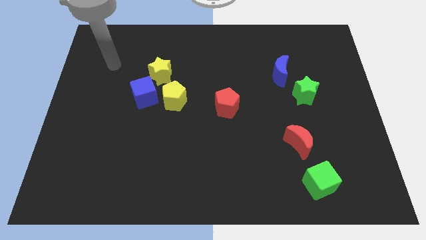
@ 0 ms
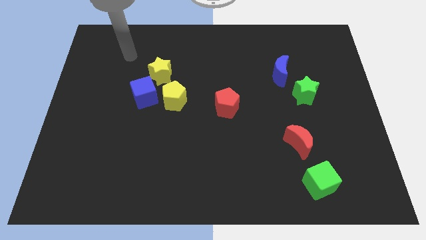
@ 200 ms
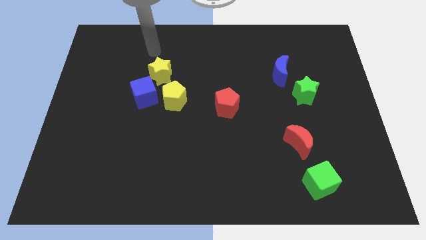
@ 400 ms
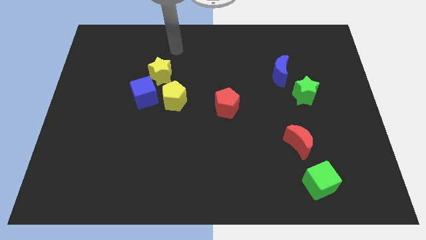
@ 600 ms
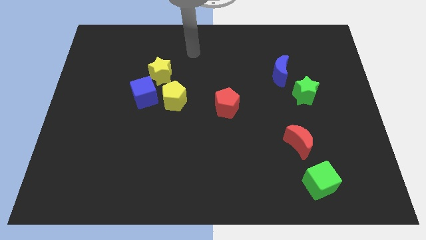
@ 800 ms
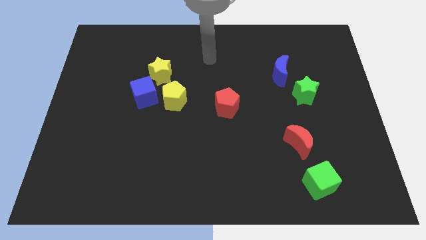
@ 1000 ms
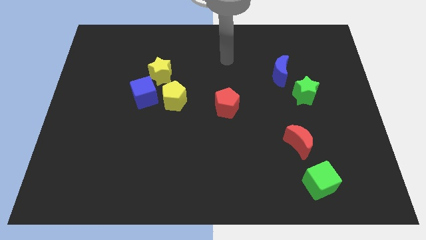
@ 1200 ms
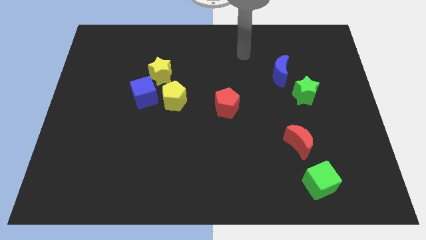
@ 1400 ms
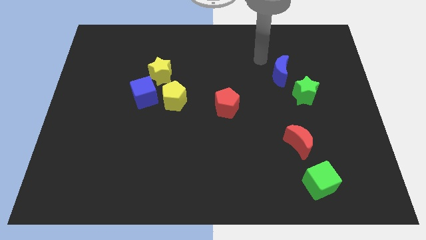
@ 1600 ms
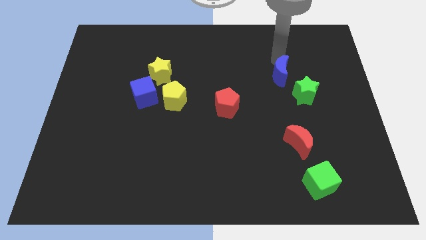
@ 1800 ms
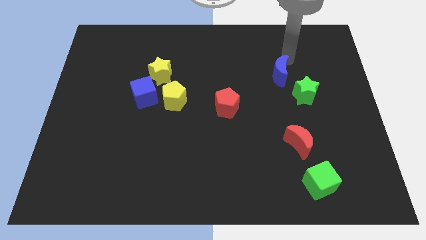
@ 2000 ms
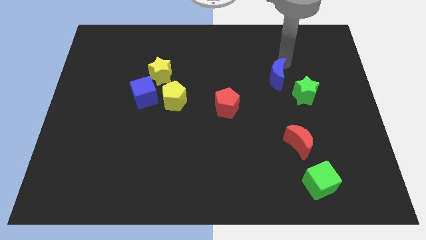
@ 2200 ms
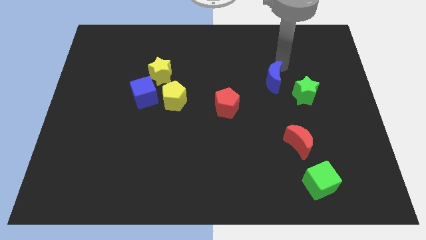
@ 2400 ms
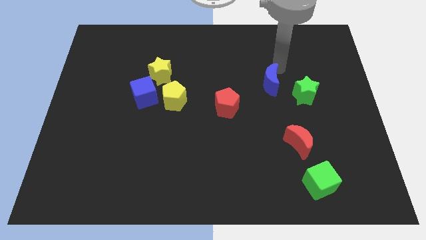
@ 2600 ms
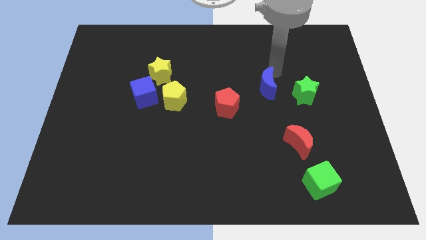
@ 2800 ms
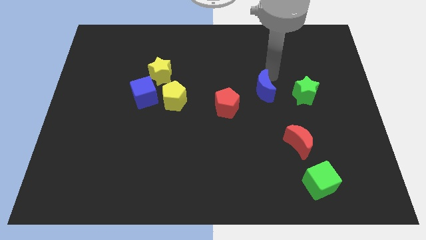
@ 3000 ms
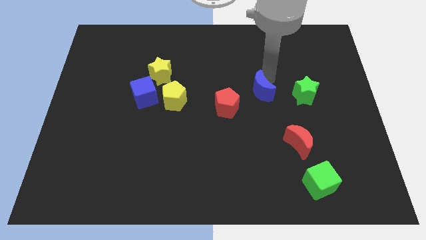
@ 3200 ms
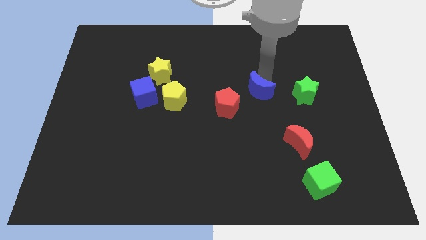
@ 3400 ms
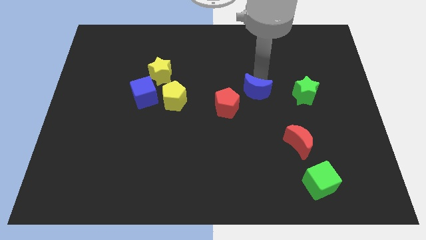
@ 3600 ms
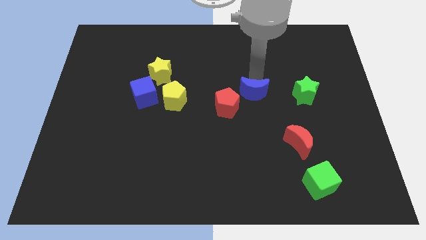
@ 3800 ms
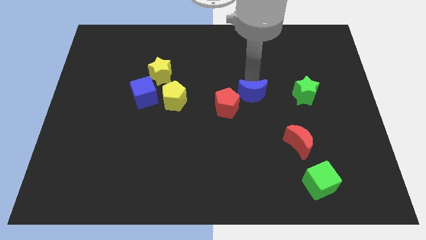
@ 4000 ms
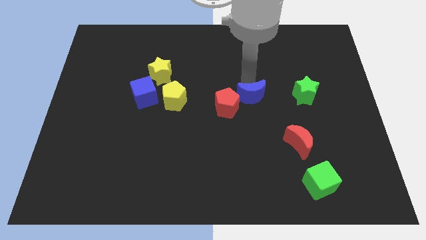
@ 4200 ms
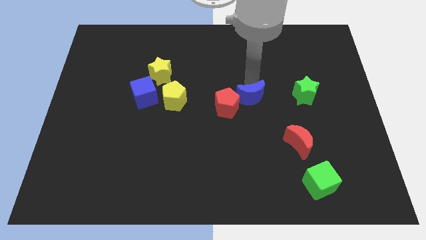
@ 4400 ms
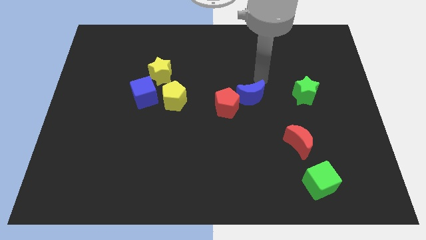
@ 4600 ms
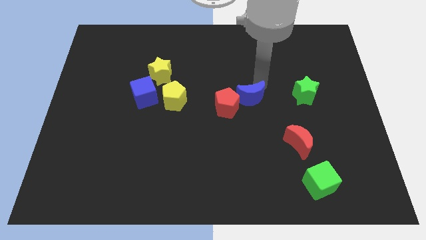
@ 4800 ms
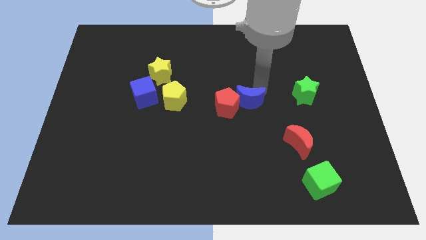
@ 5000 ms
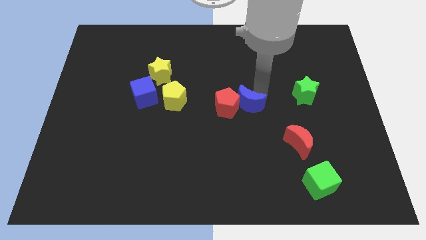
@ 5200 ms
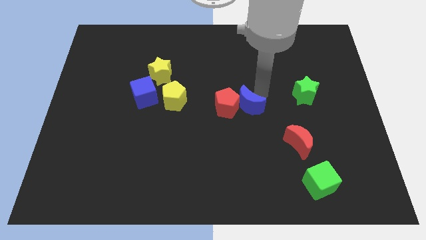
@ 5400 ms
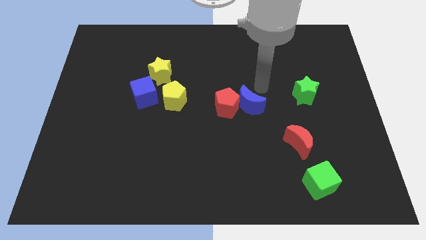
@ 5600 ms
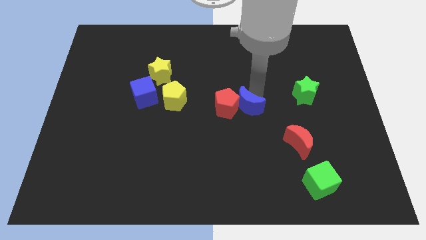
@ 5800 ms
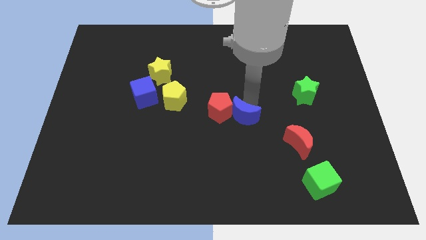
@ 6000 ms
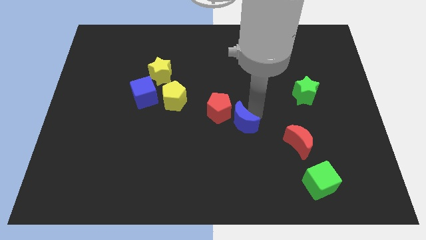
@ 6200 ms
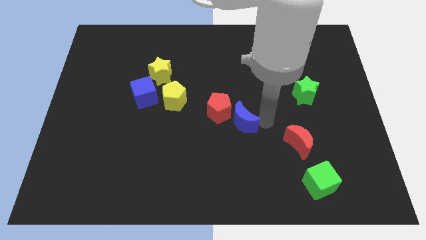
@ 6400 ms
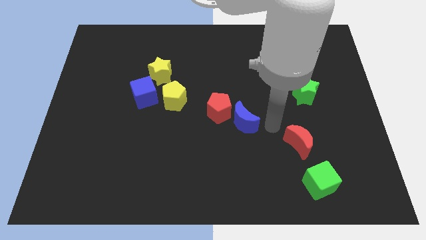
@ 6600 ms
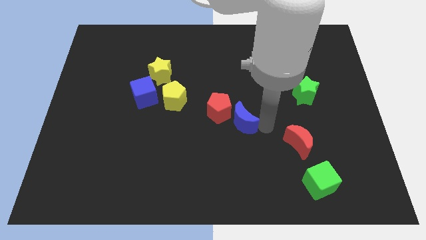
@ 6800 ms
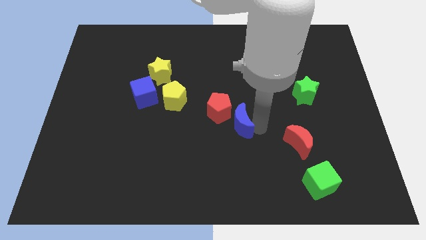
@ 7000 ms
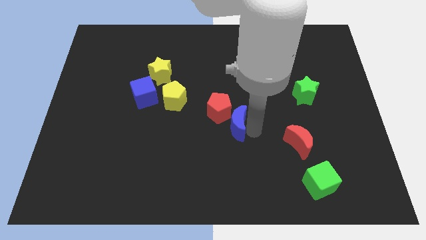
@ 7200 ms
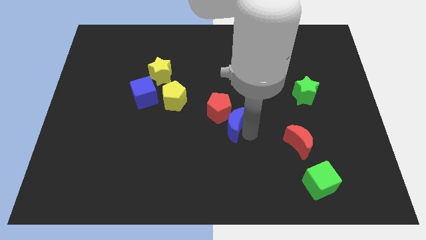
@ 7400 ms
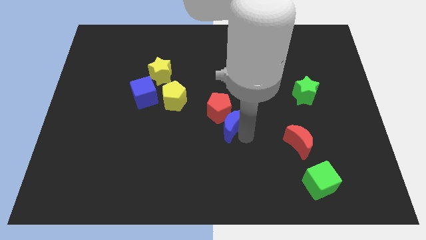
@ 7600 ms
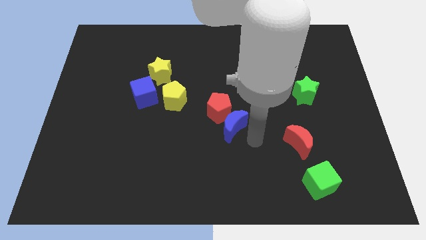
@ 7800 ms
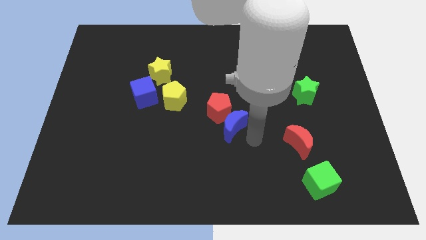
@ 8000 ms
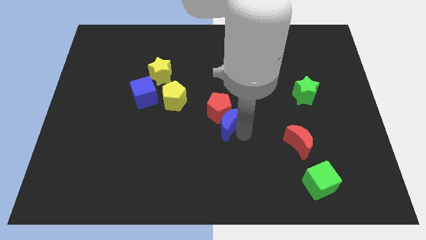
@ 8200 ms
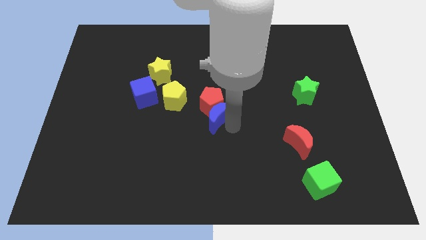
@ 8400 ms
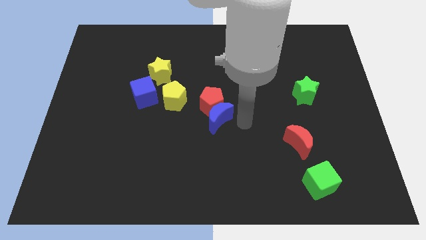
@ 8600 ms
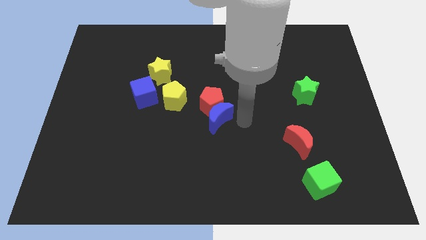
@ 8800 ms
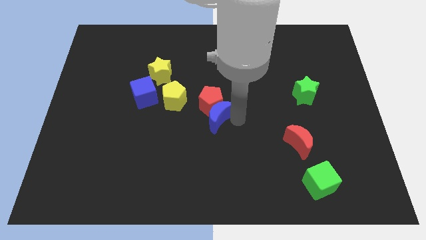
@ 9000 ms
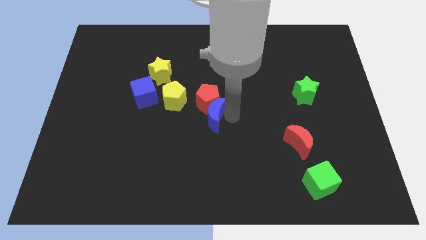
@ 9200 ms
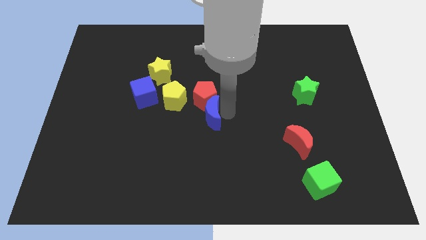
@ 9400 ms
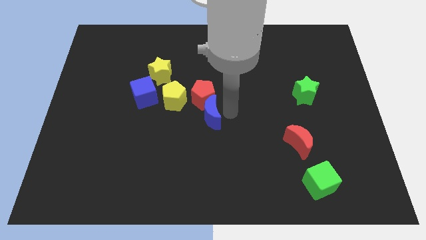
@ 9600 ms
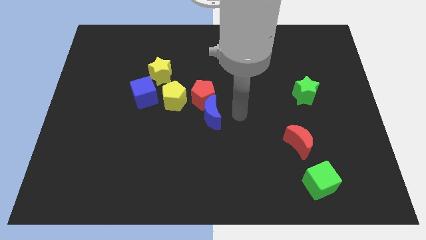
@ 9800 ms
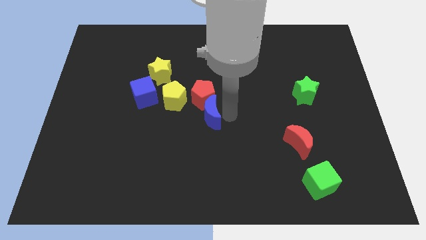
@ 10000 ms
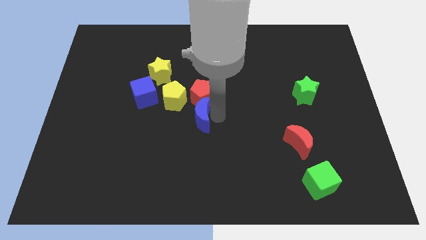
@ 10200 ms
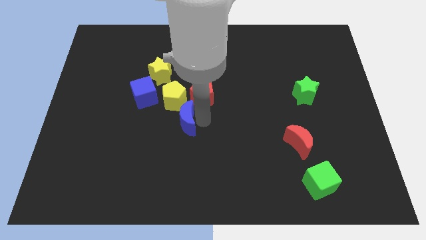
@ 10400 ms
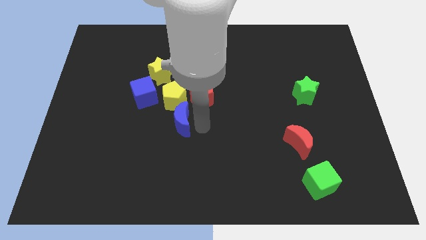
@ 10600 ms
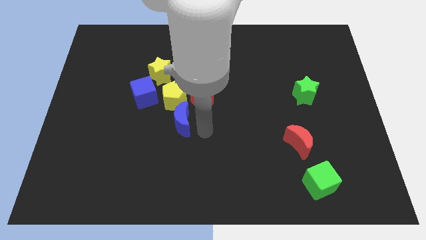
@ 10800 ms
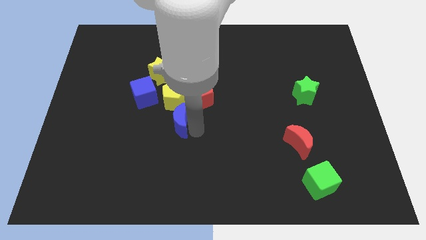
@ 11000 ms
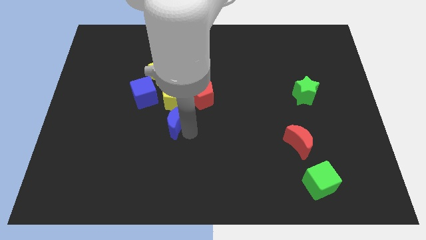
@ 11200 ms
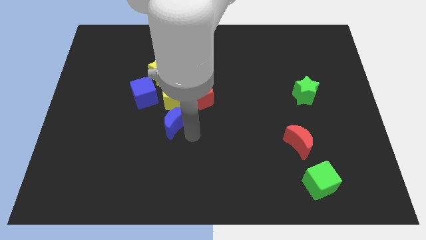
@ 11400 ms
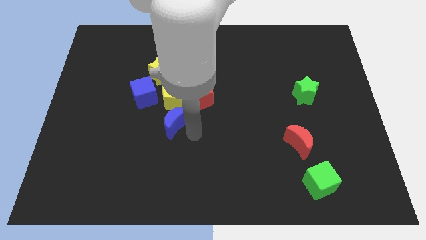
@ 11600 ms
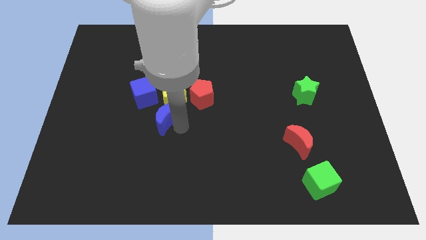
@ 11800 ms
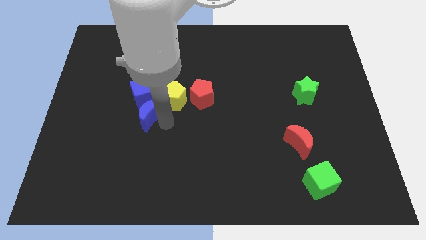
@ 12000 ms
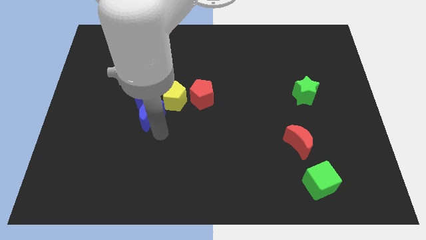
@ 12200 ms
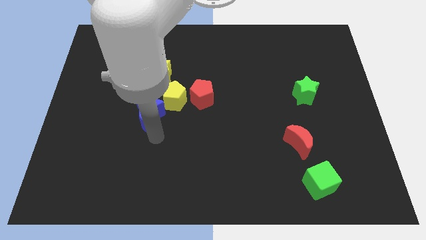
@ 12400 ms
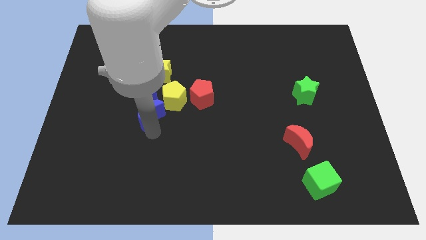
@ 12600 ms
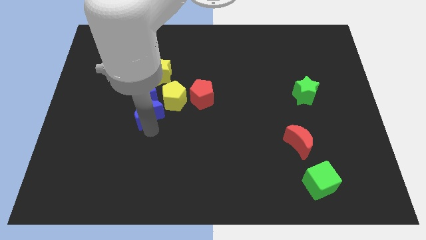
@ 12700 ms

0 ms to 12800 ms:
push the blue moon to the blue cube

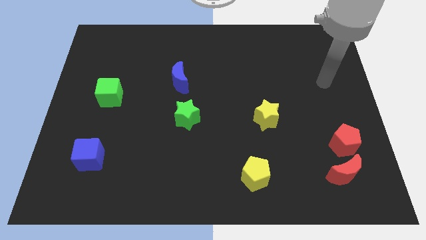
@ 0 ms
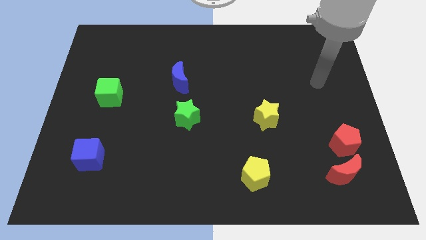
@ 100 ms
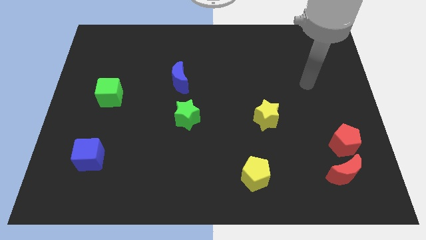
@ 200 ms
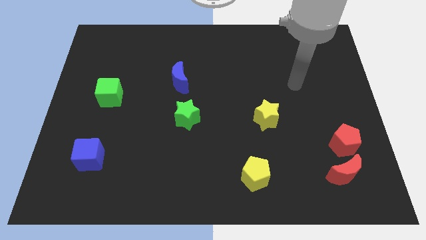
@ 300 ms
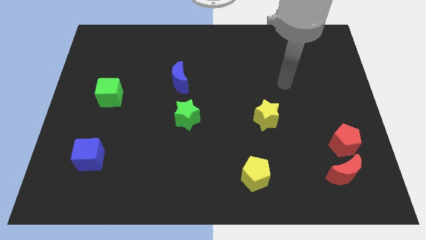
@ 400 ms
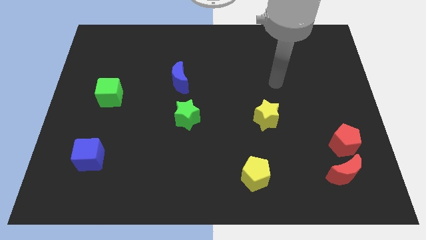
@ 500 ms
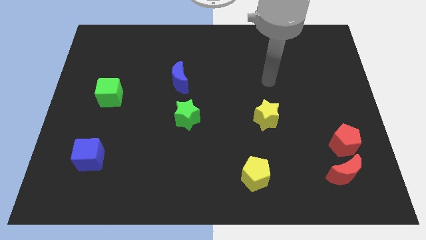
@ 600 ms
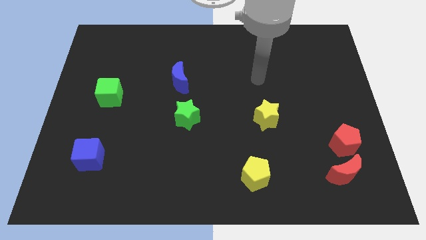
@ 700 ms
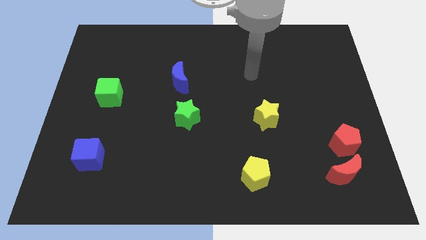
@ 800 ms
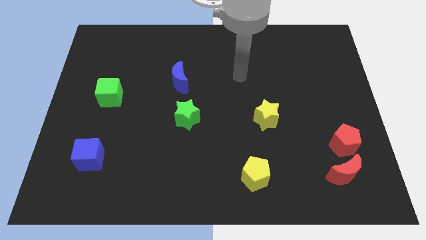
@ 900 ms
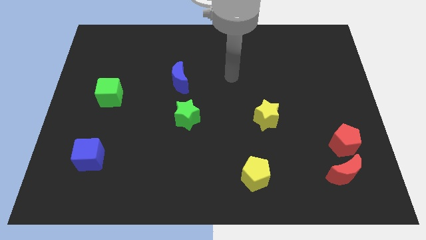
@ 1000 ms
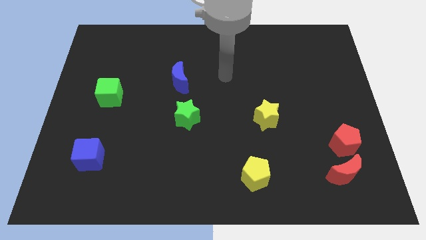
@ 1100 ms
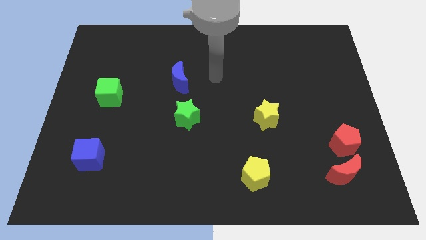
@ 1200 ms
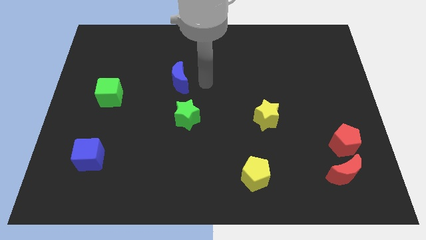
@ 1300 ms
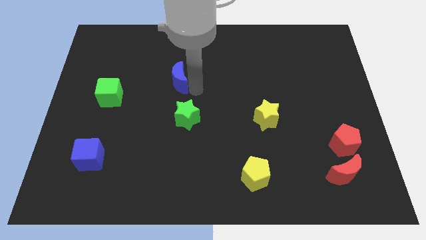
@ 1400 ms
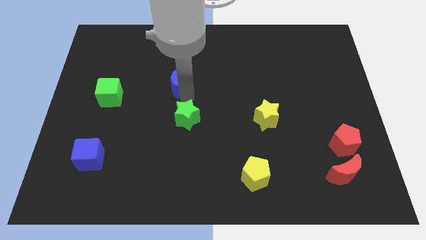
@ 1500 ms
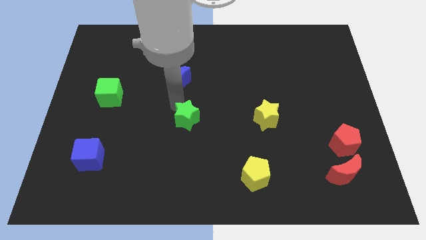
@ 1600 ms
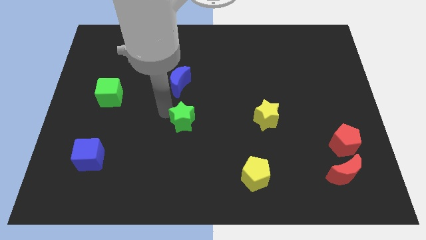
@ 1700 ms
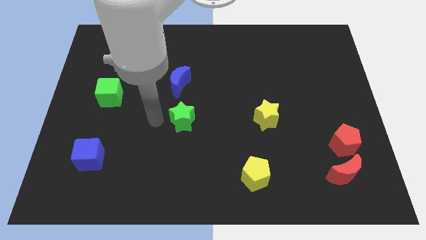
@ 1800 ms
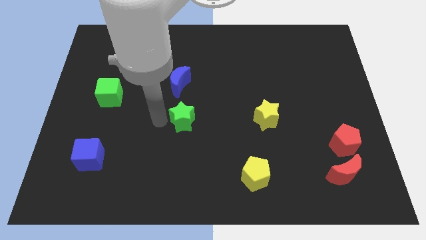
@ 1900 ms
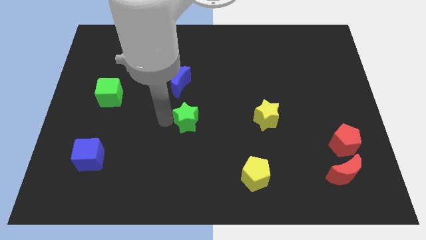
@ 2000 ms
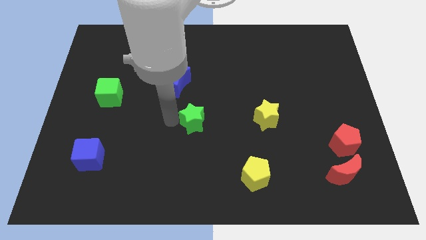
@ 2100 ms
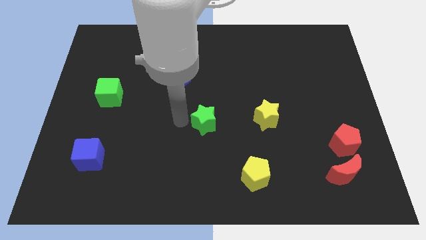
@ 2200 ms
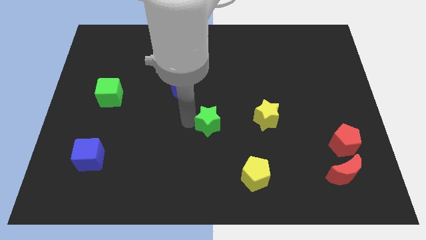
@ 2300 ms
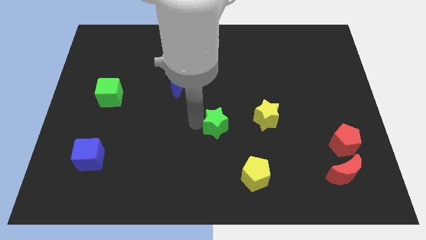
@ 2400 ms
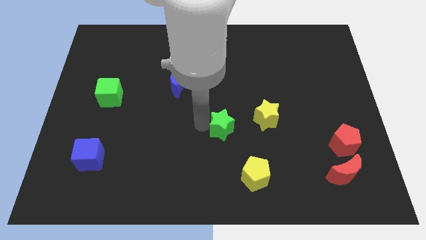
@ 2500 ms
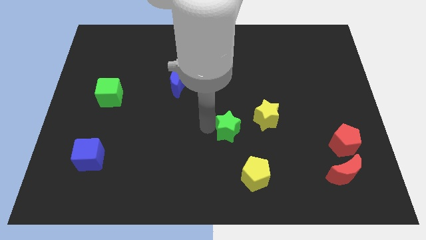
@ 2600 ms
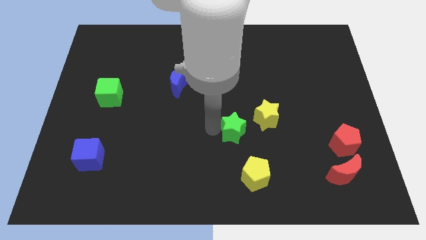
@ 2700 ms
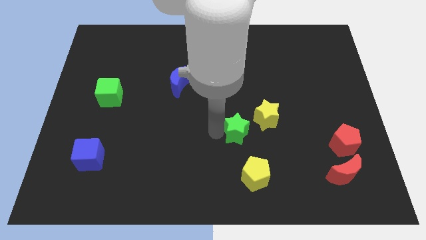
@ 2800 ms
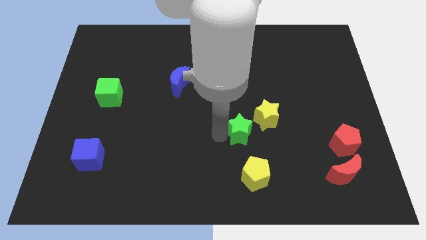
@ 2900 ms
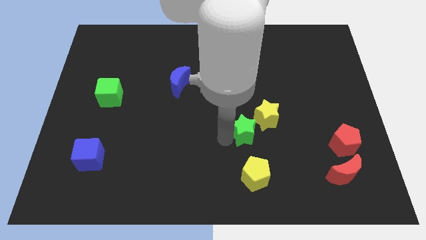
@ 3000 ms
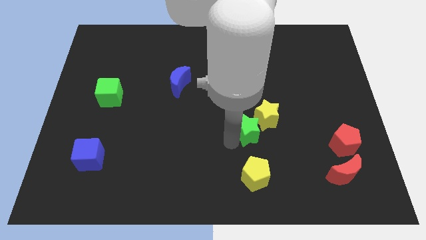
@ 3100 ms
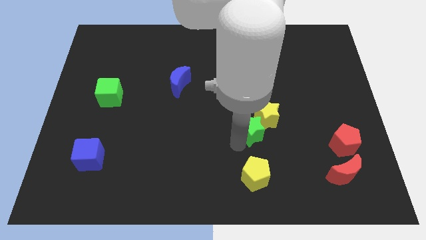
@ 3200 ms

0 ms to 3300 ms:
push the green star next to the yellow star
